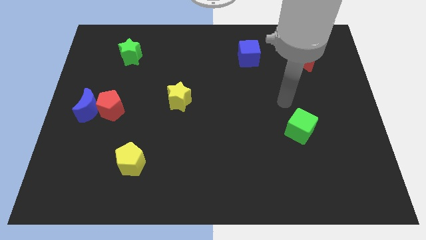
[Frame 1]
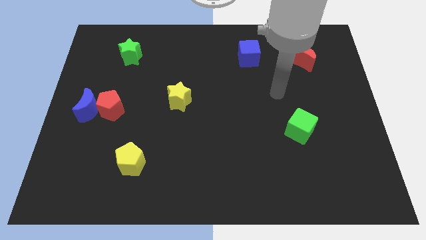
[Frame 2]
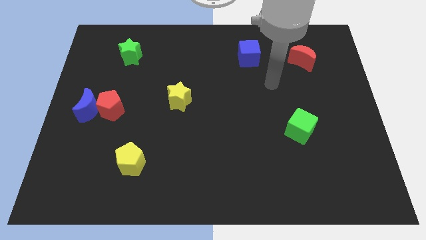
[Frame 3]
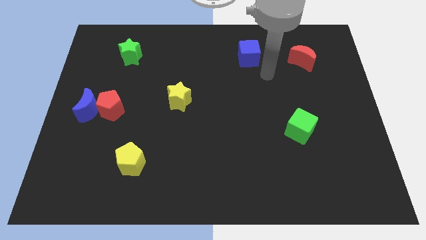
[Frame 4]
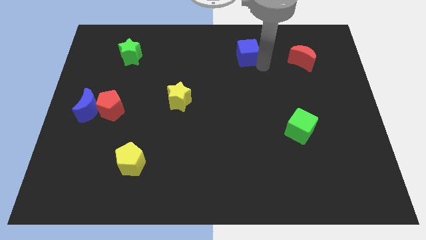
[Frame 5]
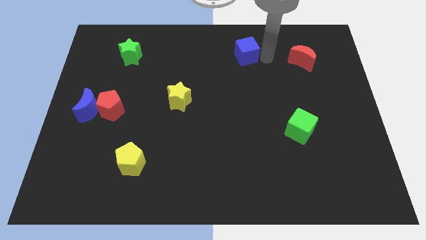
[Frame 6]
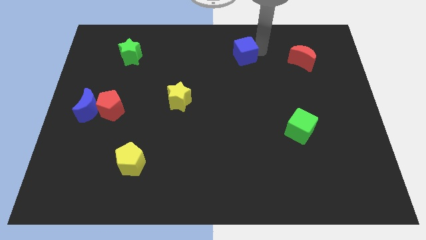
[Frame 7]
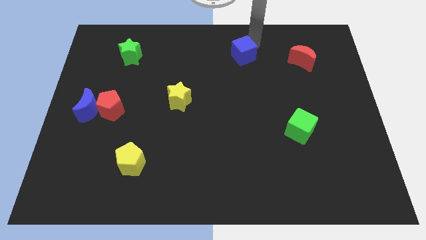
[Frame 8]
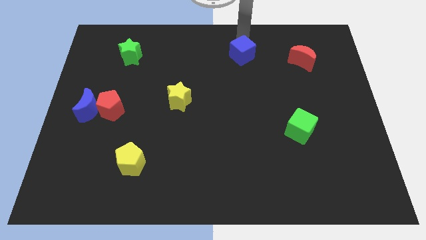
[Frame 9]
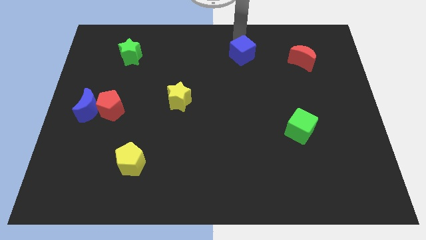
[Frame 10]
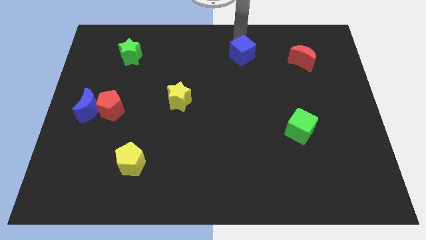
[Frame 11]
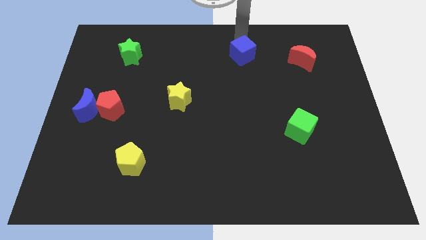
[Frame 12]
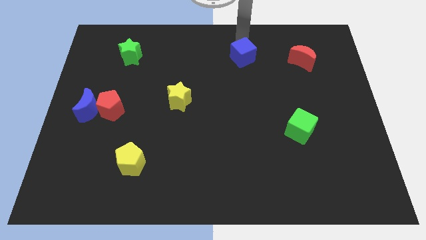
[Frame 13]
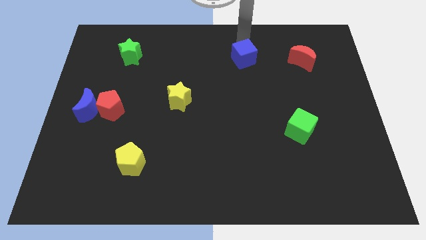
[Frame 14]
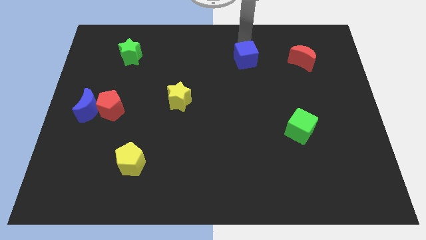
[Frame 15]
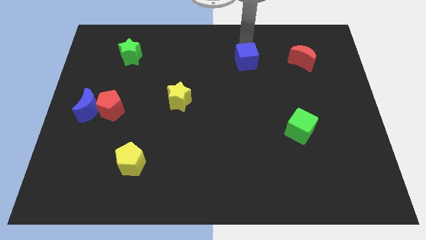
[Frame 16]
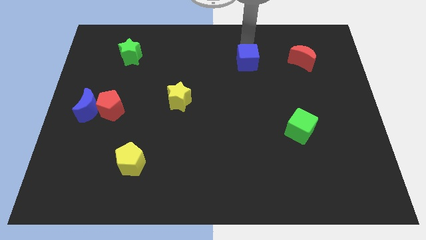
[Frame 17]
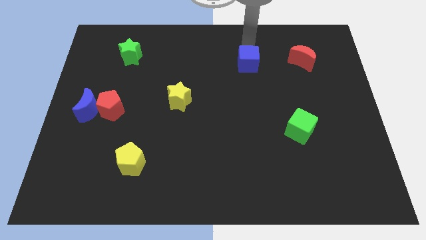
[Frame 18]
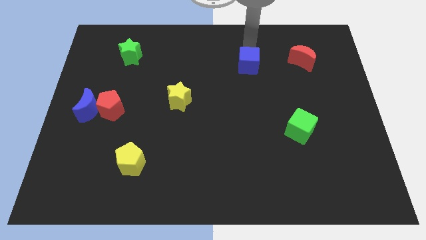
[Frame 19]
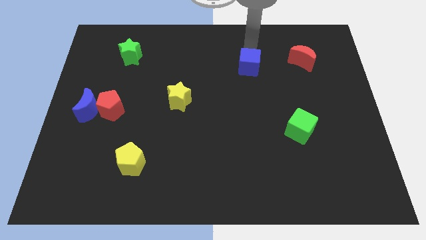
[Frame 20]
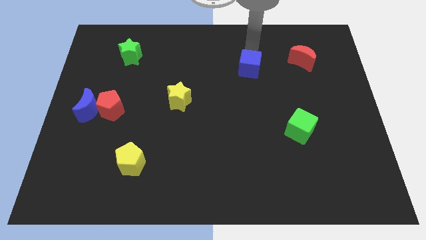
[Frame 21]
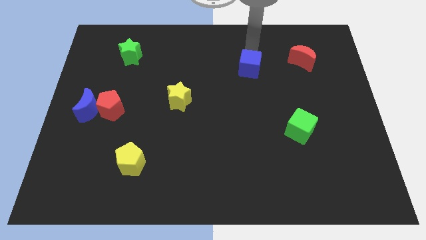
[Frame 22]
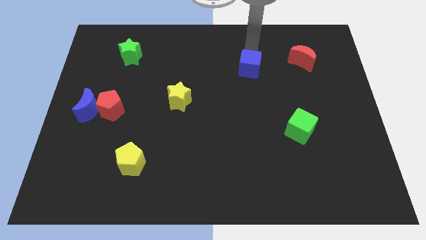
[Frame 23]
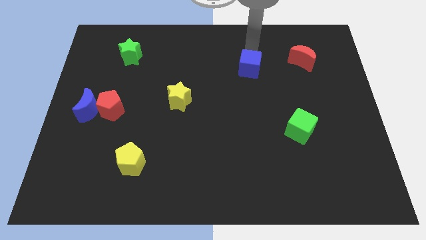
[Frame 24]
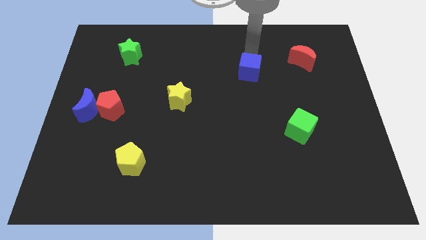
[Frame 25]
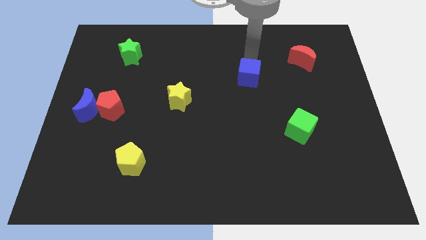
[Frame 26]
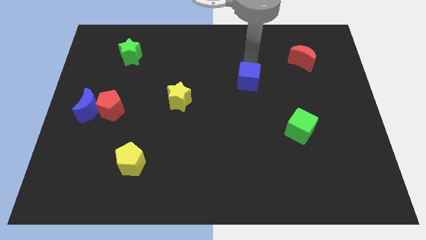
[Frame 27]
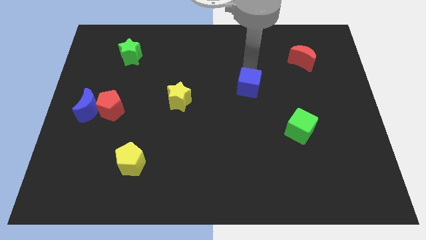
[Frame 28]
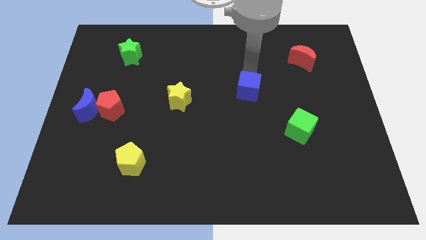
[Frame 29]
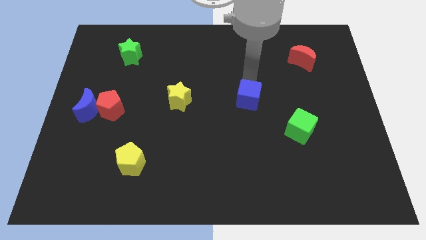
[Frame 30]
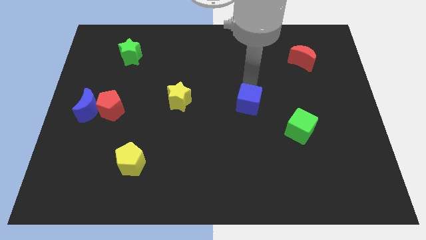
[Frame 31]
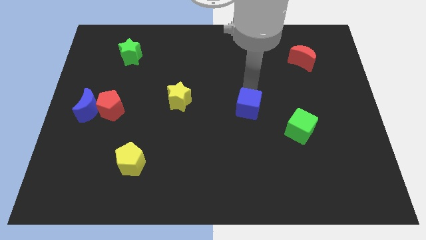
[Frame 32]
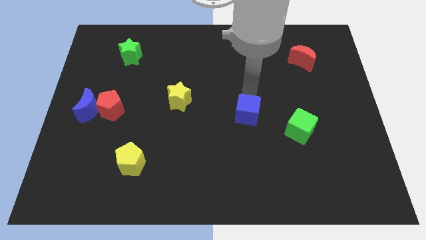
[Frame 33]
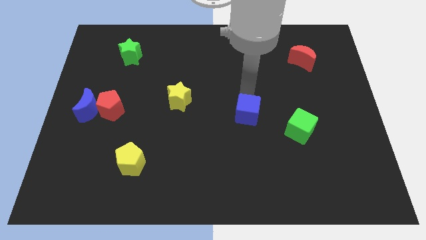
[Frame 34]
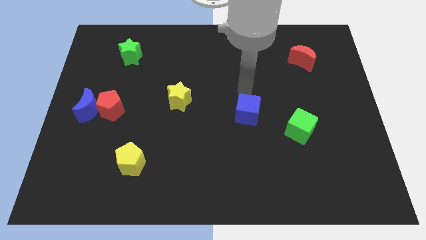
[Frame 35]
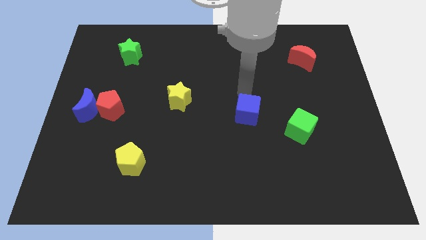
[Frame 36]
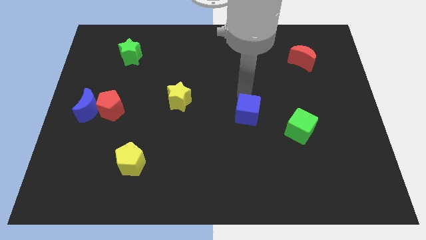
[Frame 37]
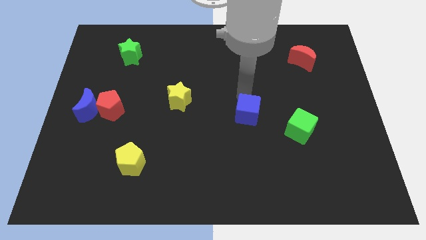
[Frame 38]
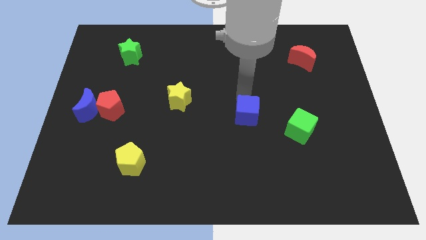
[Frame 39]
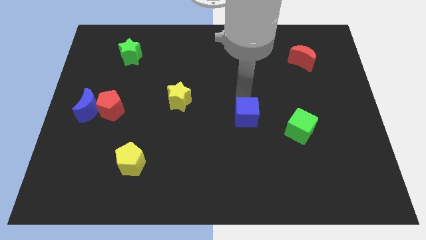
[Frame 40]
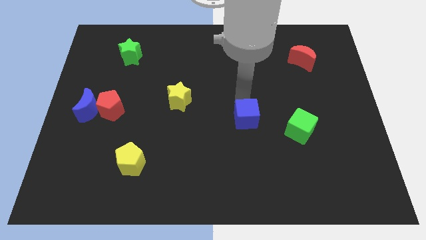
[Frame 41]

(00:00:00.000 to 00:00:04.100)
move the blue cube down

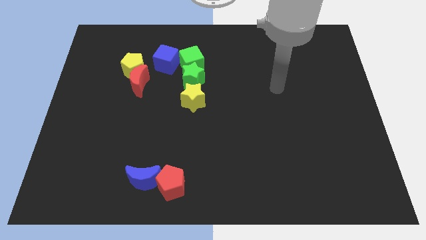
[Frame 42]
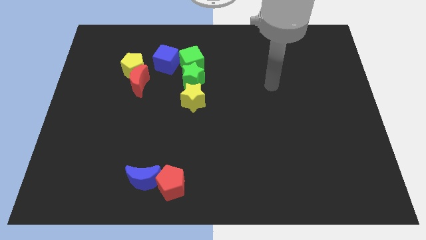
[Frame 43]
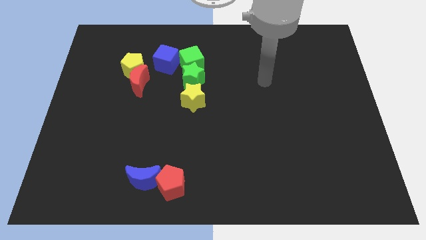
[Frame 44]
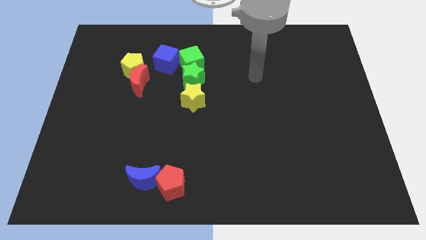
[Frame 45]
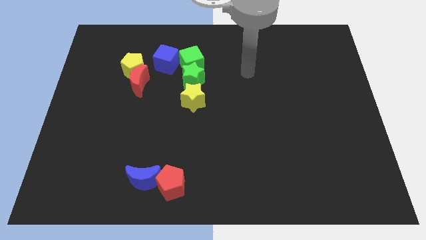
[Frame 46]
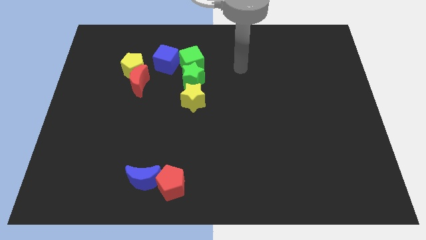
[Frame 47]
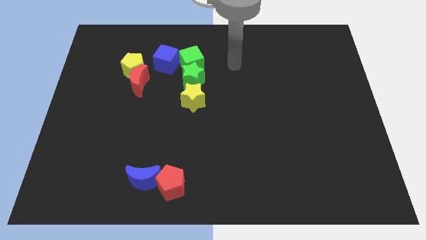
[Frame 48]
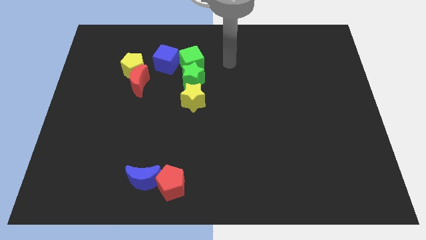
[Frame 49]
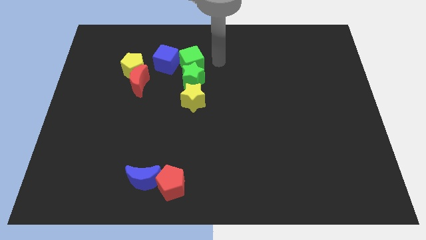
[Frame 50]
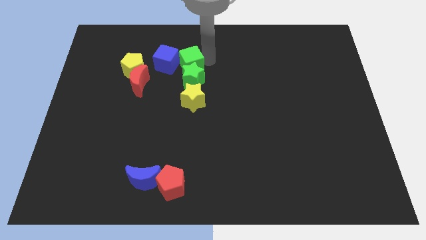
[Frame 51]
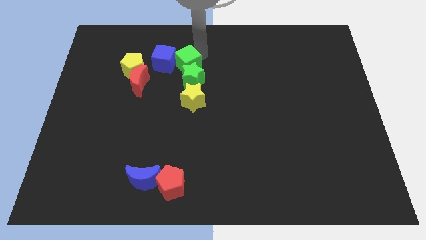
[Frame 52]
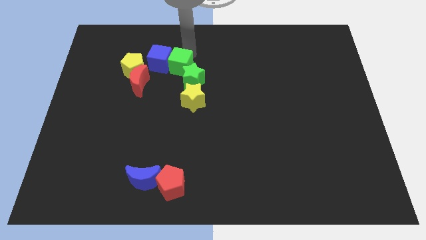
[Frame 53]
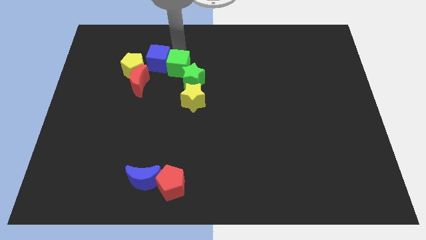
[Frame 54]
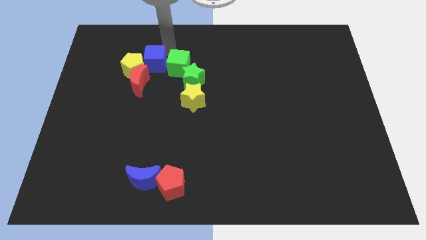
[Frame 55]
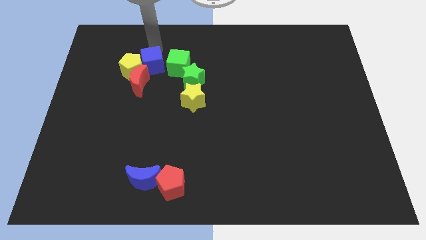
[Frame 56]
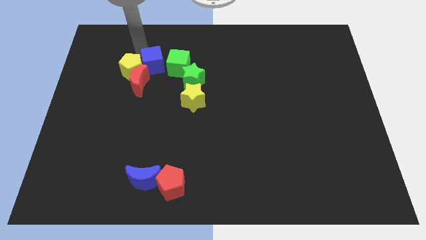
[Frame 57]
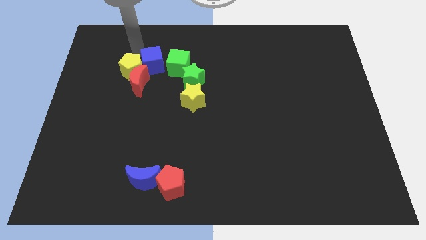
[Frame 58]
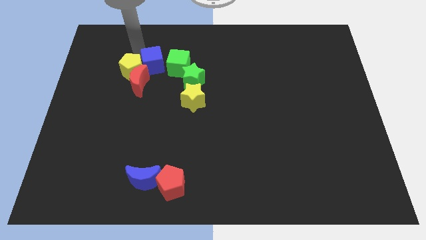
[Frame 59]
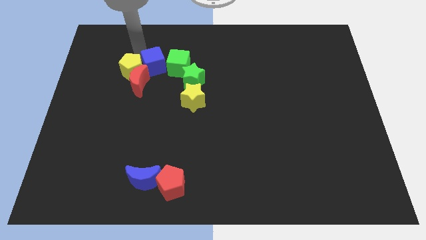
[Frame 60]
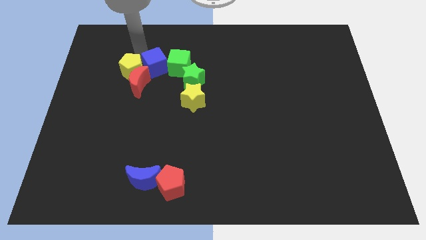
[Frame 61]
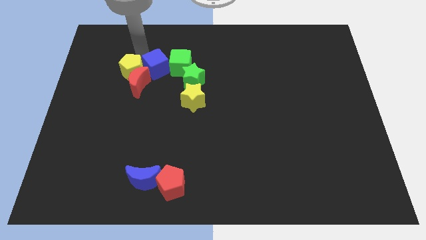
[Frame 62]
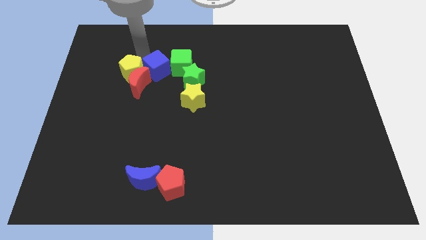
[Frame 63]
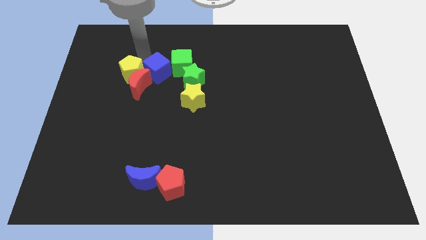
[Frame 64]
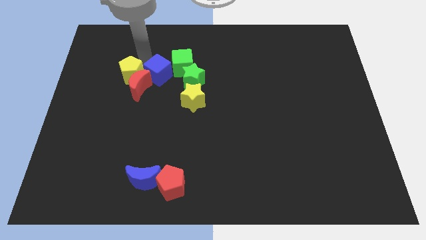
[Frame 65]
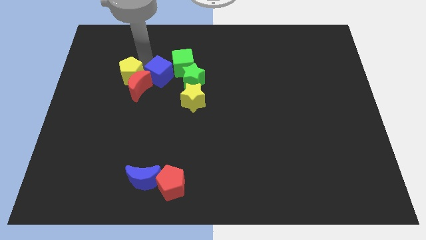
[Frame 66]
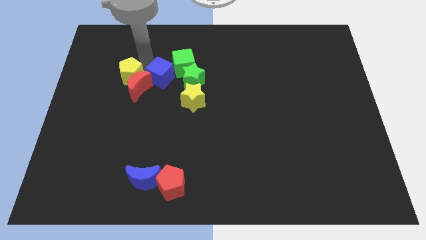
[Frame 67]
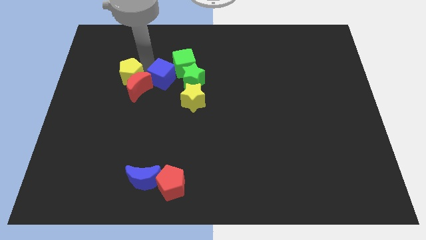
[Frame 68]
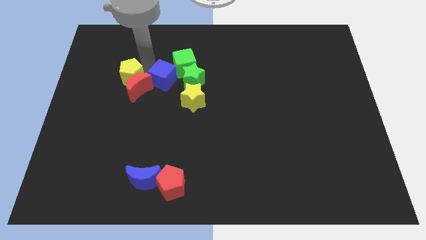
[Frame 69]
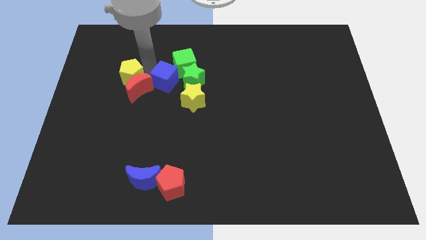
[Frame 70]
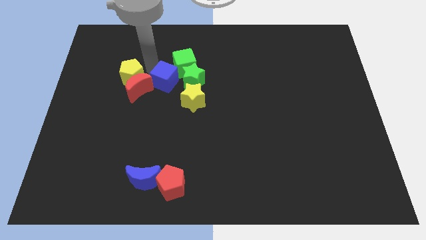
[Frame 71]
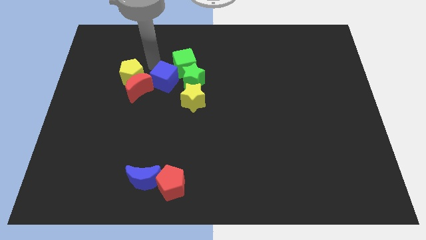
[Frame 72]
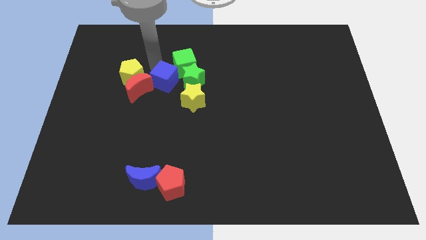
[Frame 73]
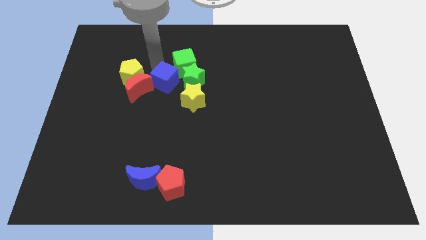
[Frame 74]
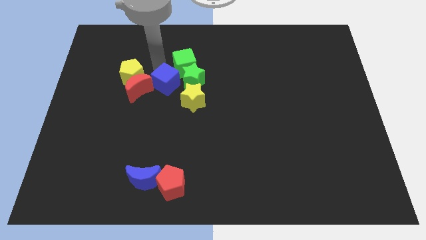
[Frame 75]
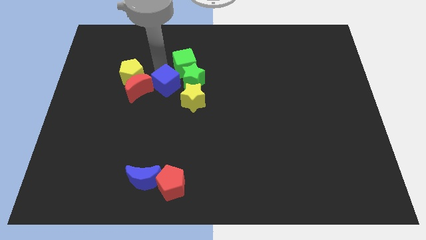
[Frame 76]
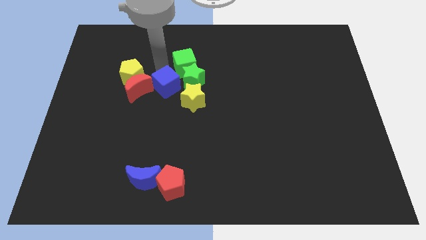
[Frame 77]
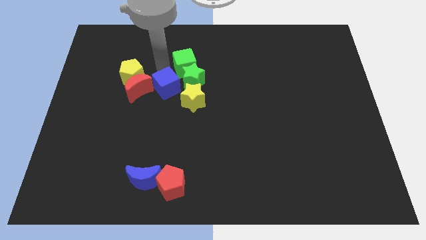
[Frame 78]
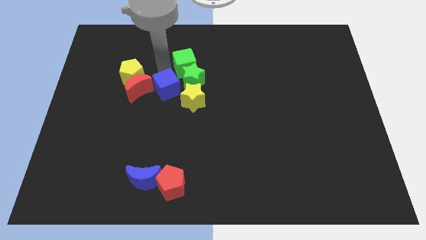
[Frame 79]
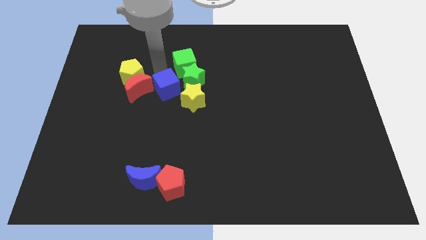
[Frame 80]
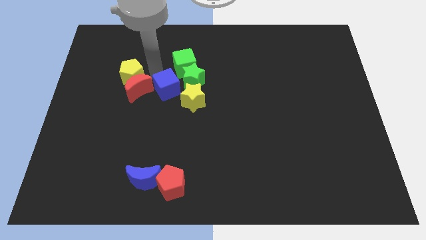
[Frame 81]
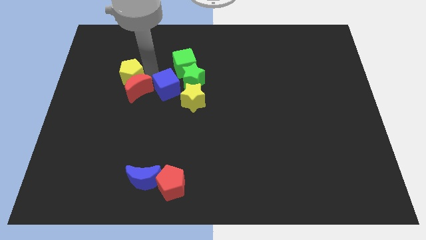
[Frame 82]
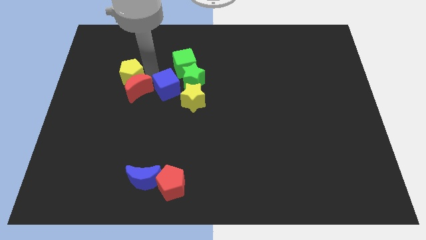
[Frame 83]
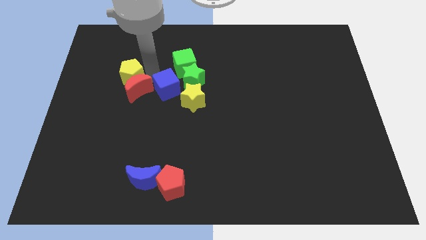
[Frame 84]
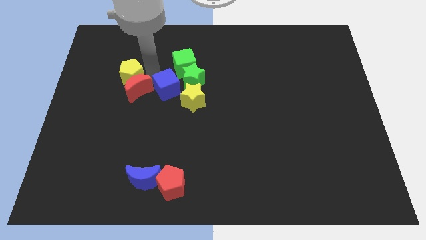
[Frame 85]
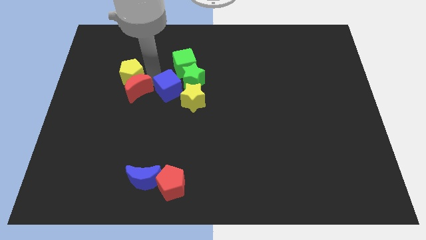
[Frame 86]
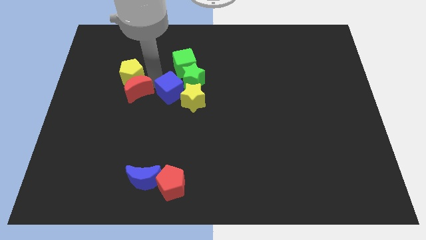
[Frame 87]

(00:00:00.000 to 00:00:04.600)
push the blue cube a bit down and then right
